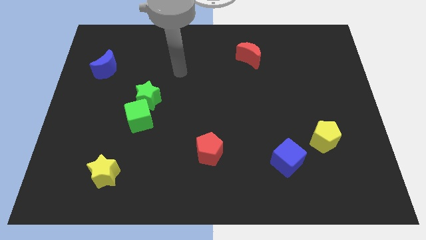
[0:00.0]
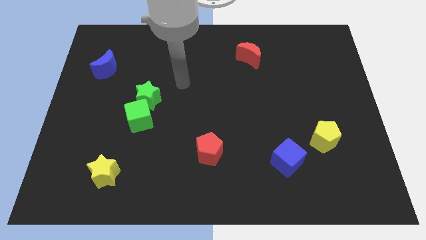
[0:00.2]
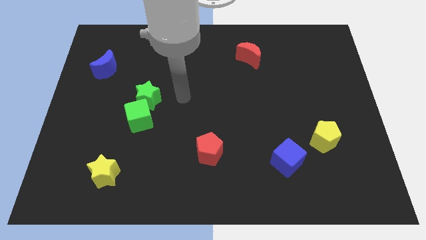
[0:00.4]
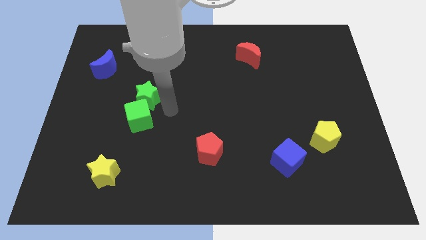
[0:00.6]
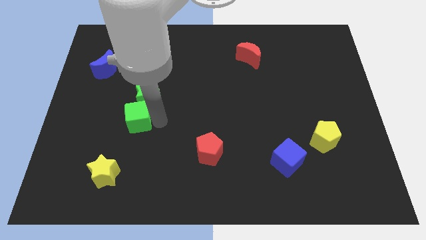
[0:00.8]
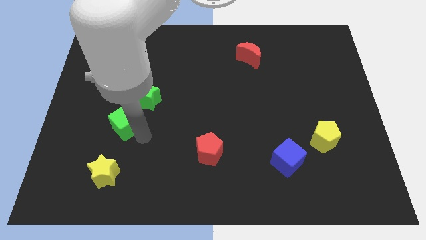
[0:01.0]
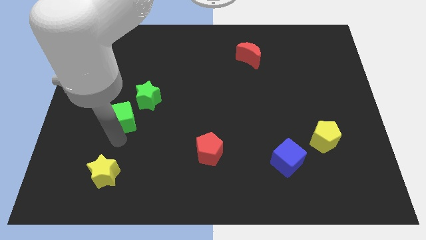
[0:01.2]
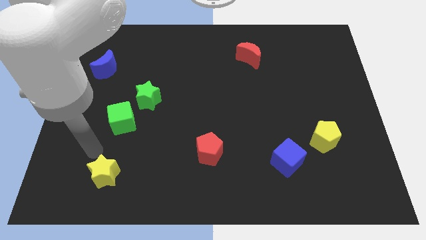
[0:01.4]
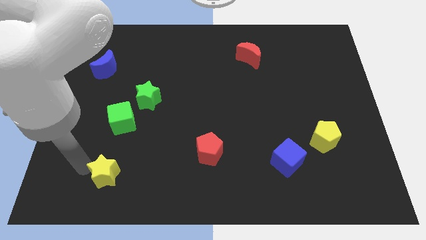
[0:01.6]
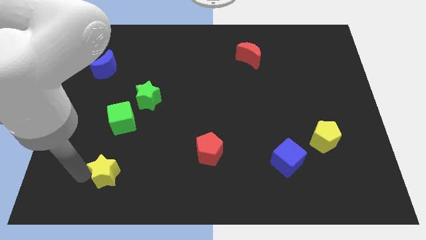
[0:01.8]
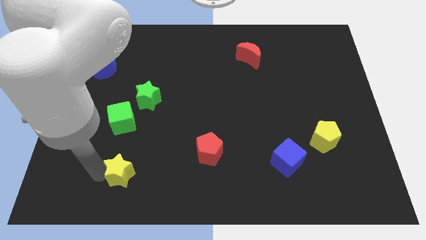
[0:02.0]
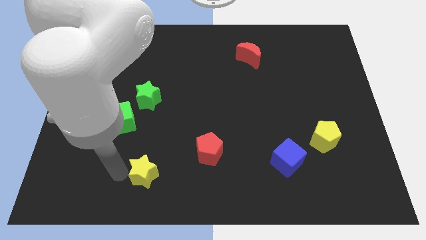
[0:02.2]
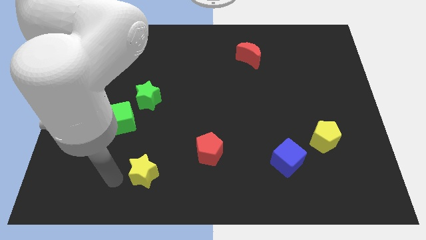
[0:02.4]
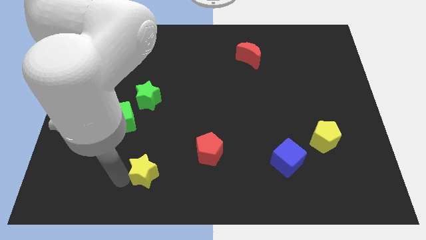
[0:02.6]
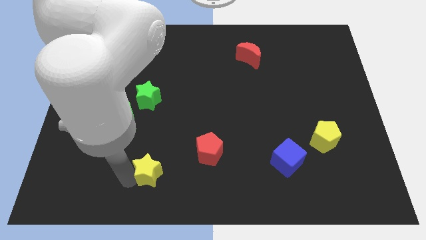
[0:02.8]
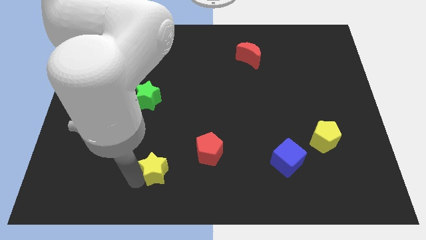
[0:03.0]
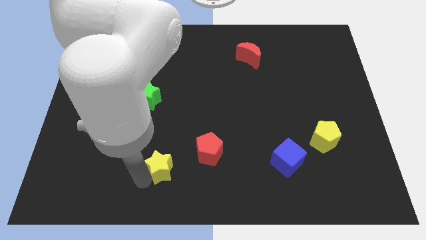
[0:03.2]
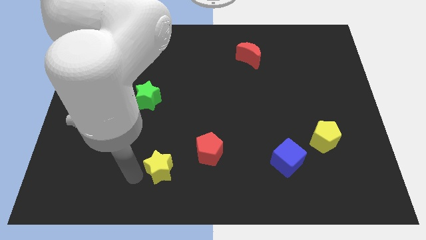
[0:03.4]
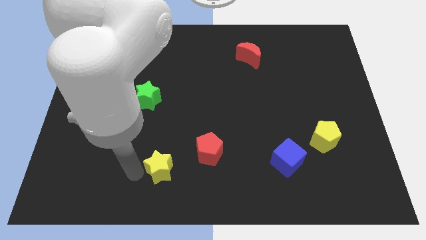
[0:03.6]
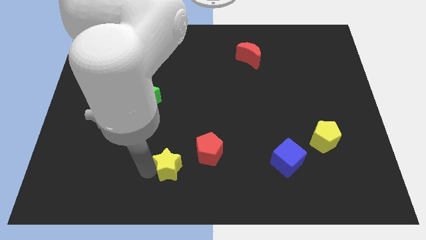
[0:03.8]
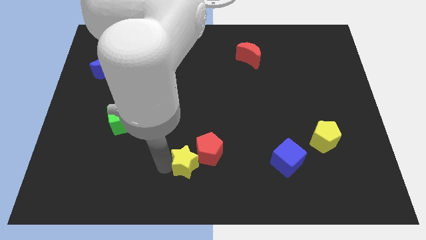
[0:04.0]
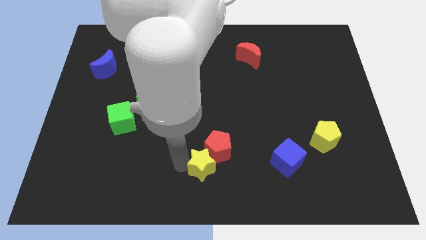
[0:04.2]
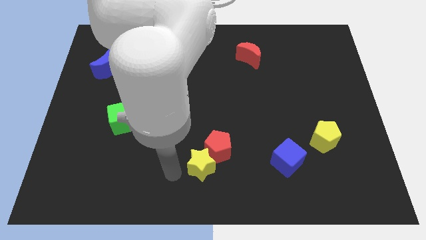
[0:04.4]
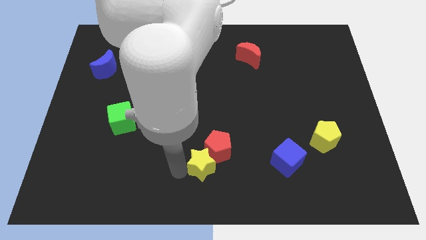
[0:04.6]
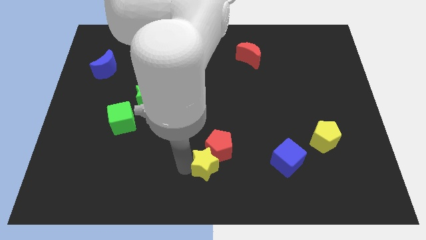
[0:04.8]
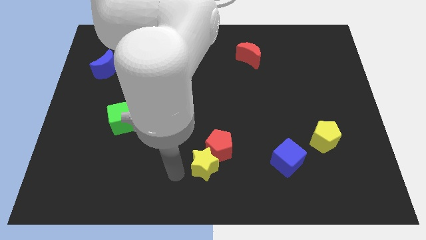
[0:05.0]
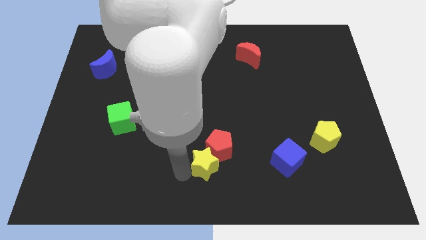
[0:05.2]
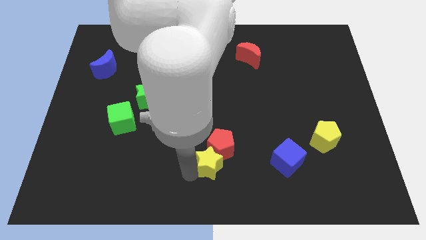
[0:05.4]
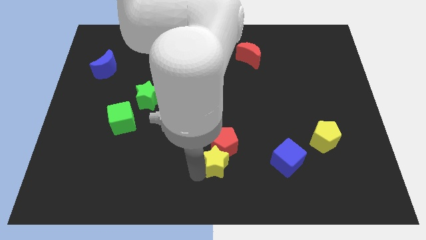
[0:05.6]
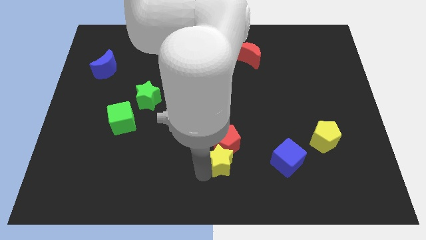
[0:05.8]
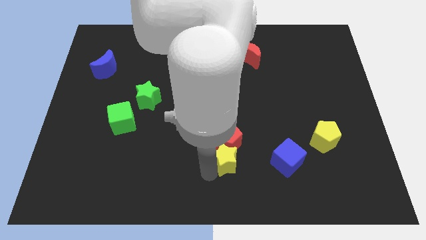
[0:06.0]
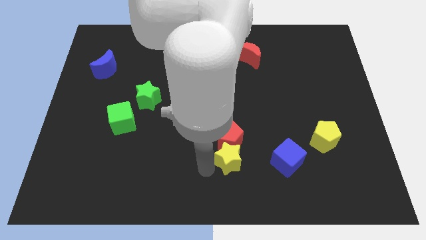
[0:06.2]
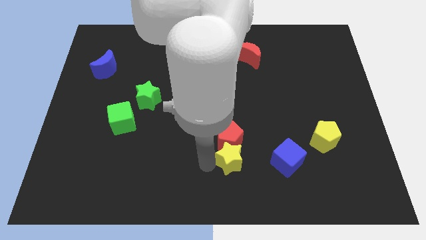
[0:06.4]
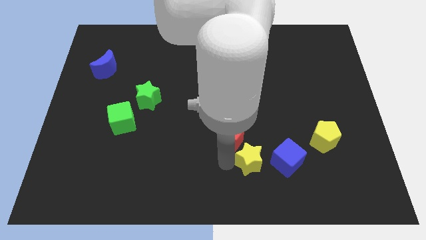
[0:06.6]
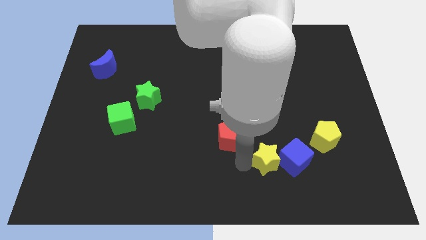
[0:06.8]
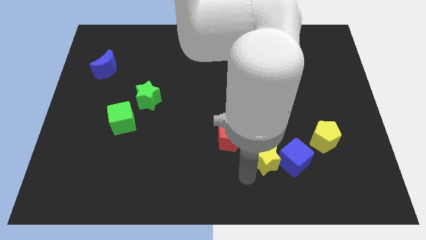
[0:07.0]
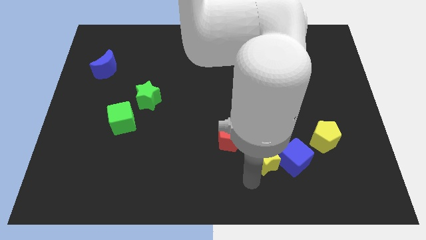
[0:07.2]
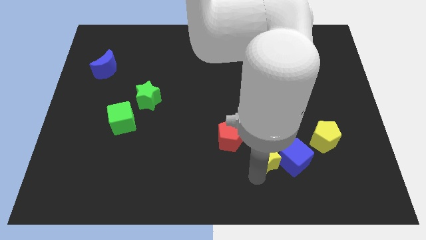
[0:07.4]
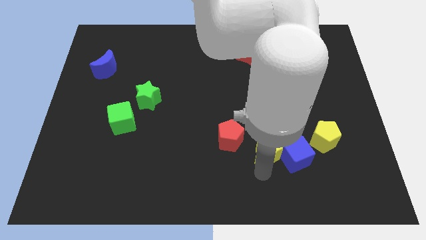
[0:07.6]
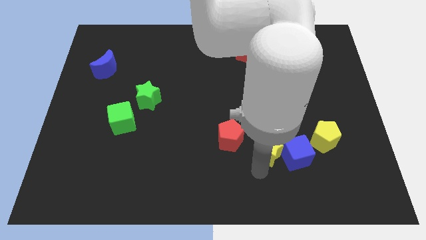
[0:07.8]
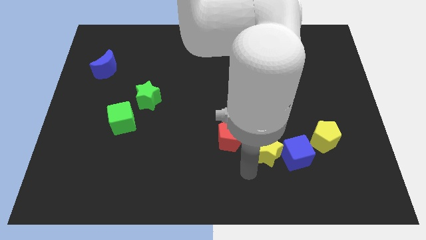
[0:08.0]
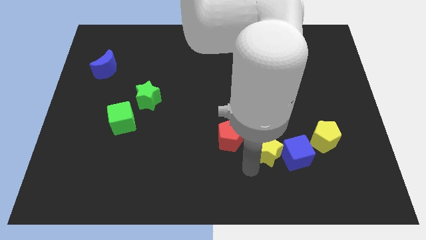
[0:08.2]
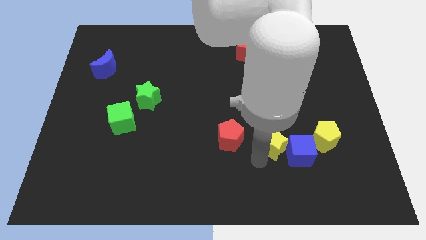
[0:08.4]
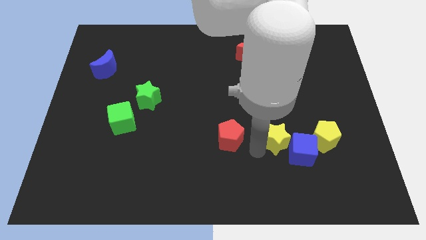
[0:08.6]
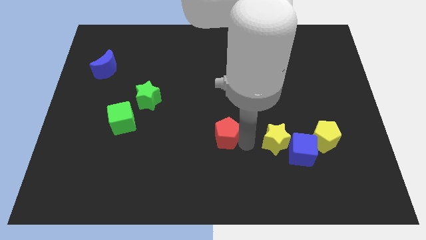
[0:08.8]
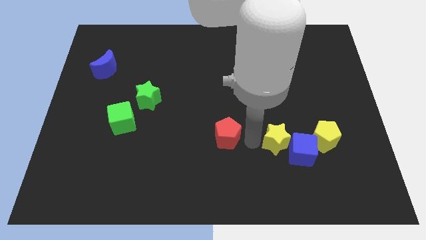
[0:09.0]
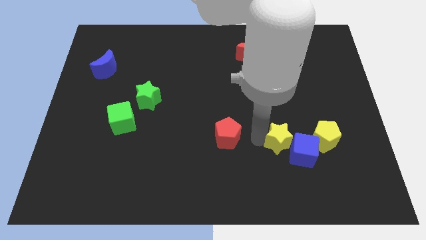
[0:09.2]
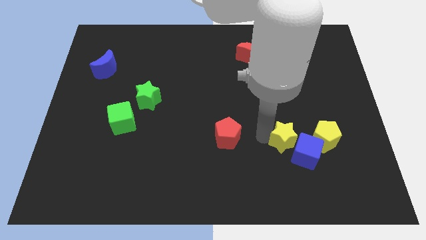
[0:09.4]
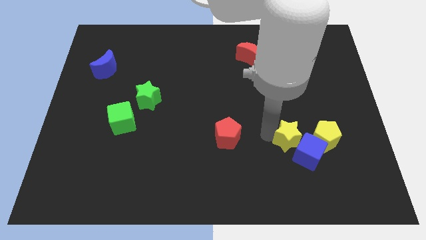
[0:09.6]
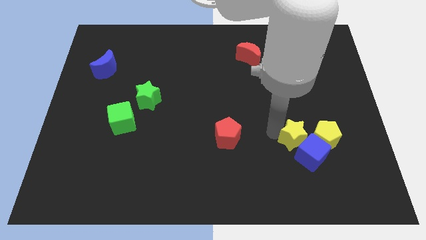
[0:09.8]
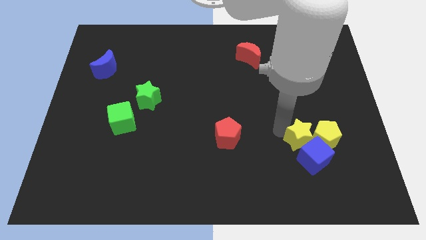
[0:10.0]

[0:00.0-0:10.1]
move the yellow star to the yellow pentagon

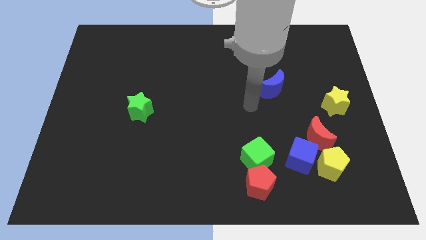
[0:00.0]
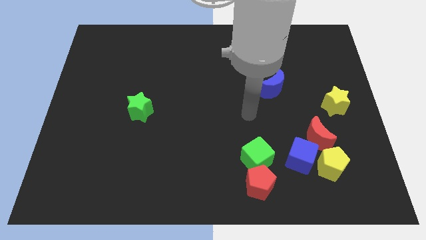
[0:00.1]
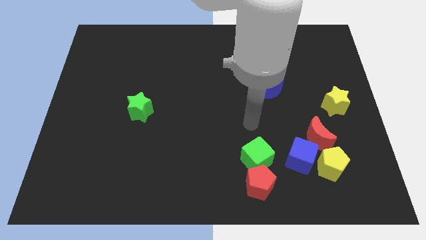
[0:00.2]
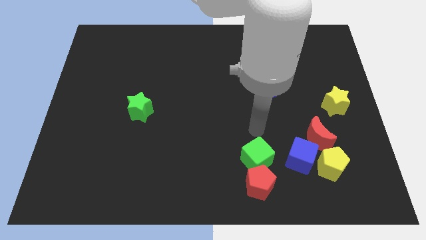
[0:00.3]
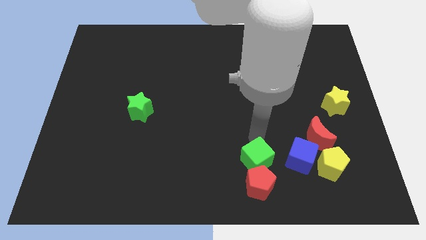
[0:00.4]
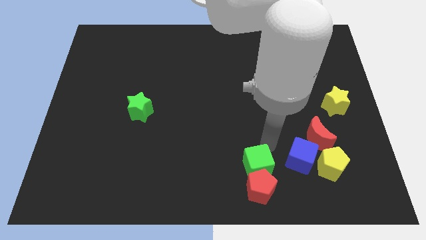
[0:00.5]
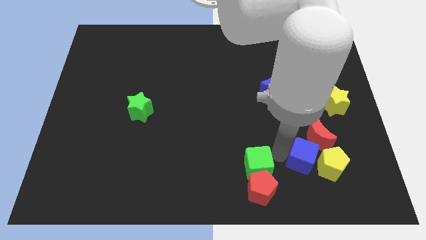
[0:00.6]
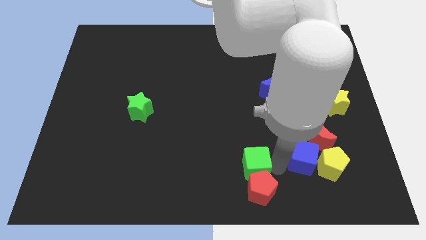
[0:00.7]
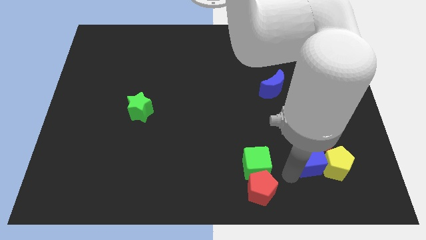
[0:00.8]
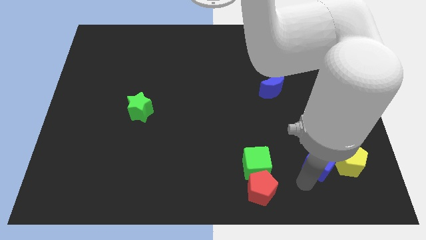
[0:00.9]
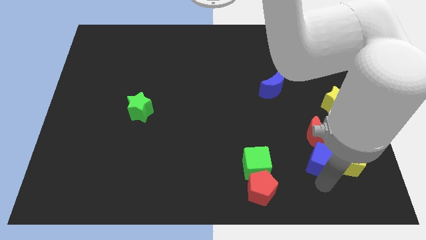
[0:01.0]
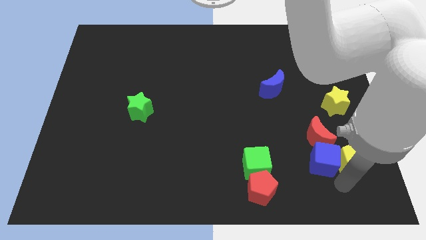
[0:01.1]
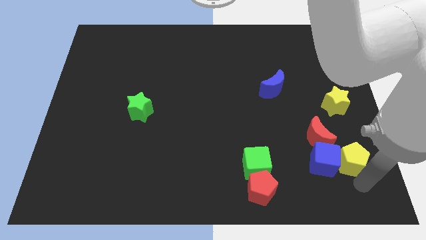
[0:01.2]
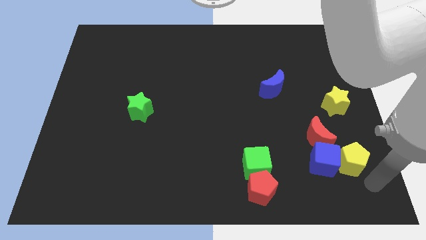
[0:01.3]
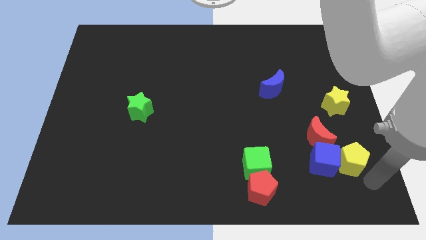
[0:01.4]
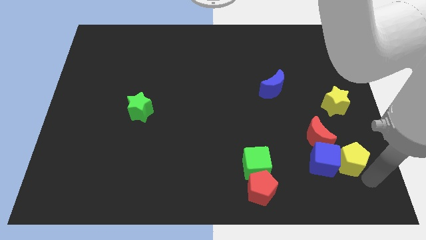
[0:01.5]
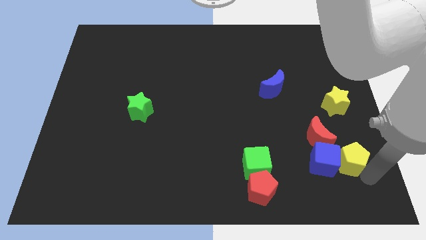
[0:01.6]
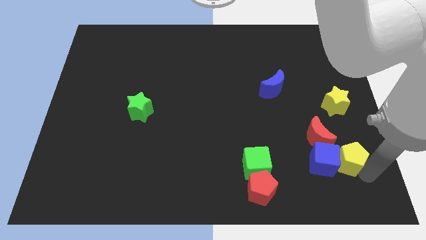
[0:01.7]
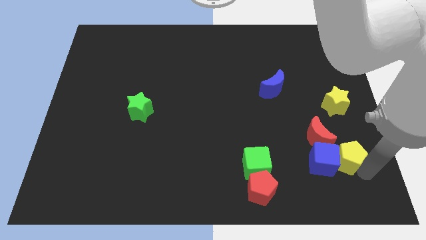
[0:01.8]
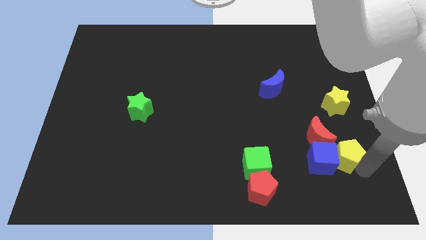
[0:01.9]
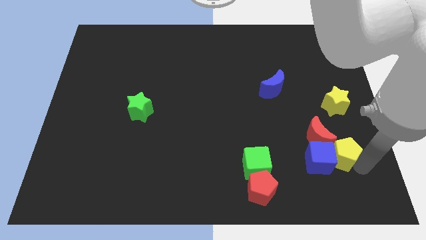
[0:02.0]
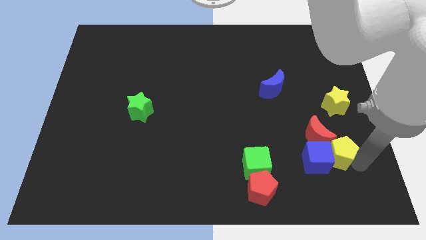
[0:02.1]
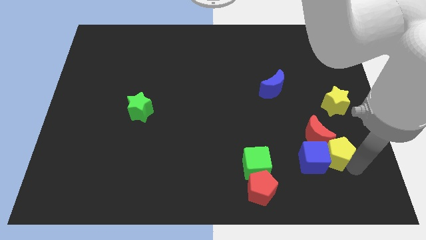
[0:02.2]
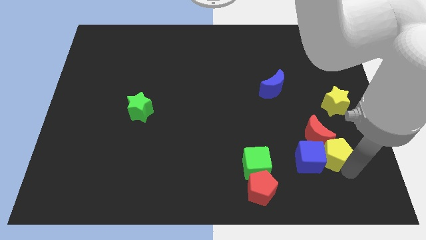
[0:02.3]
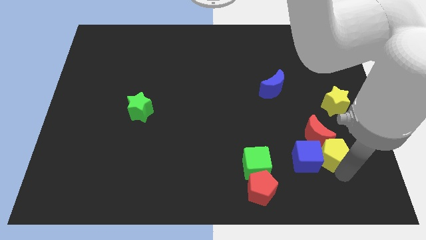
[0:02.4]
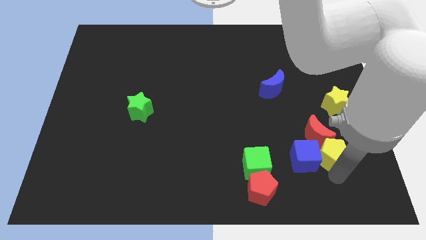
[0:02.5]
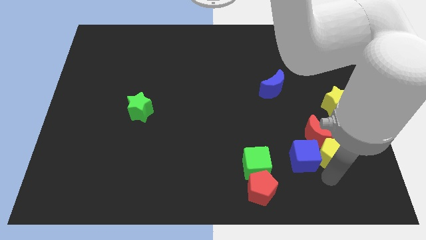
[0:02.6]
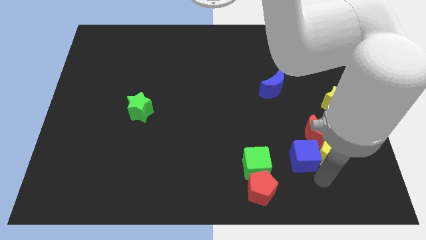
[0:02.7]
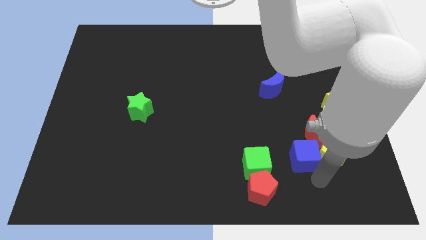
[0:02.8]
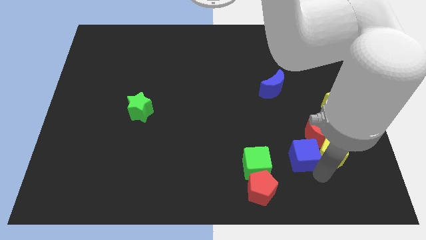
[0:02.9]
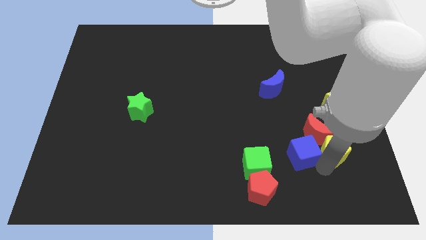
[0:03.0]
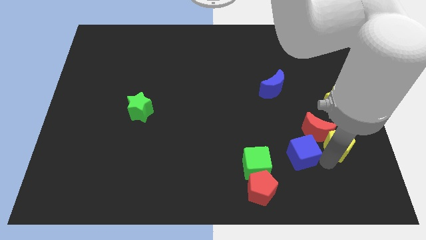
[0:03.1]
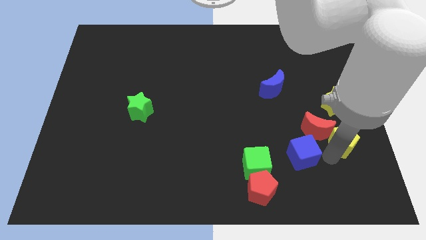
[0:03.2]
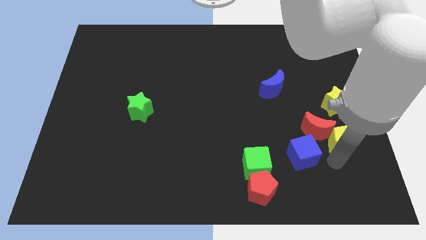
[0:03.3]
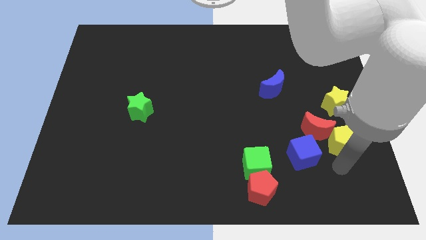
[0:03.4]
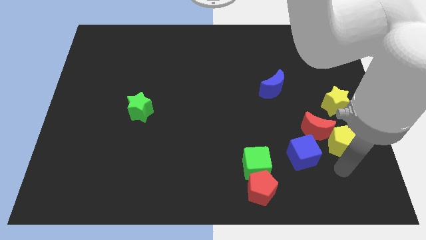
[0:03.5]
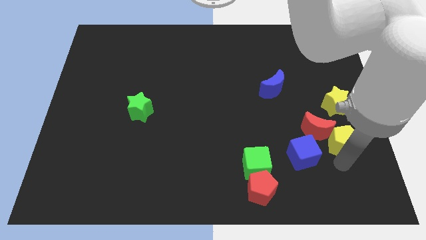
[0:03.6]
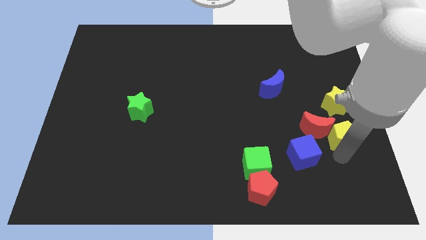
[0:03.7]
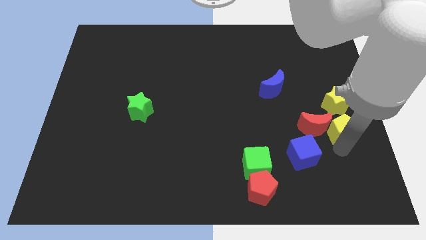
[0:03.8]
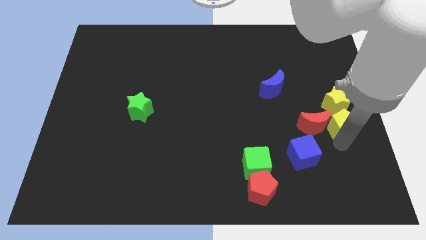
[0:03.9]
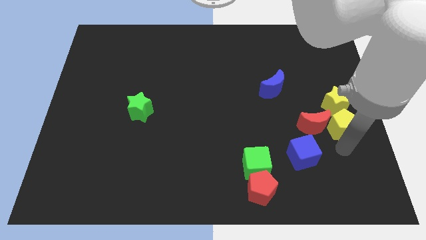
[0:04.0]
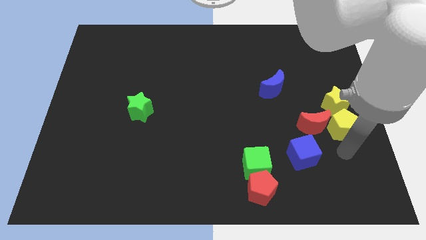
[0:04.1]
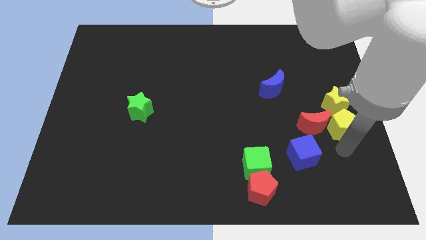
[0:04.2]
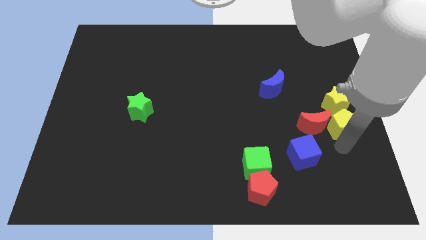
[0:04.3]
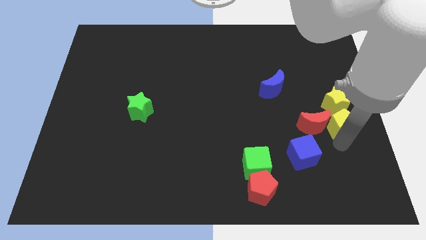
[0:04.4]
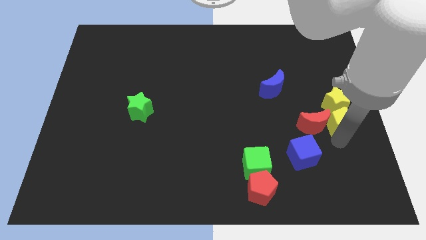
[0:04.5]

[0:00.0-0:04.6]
put the yellow pentagon next to the yellow star
